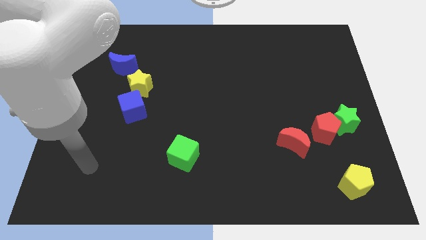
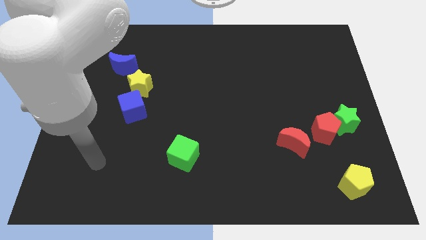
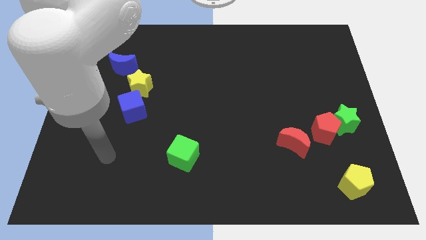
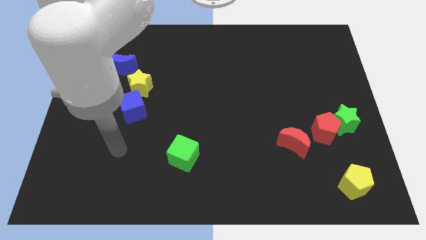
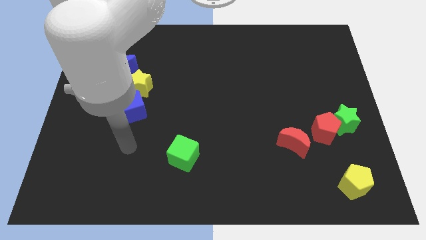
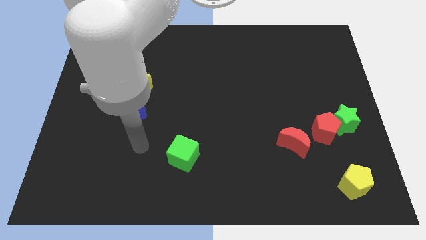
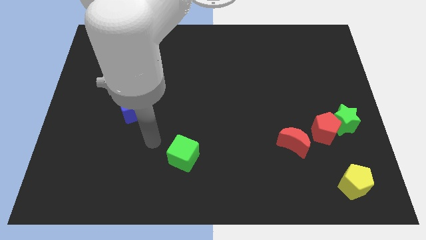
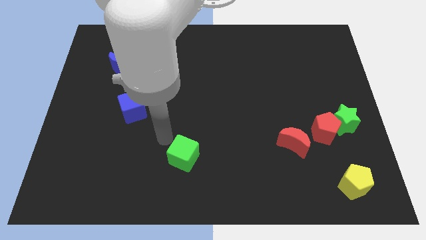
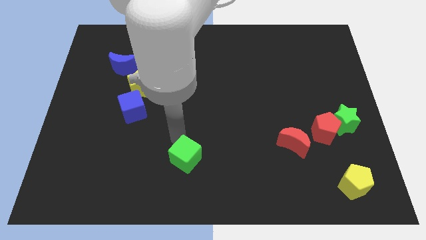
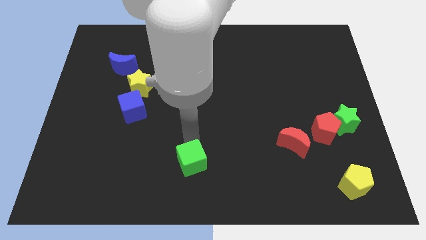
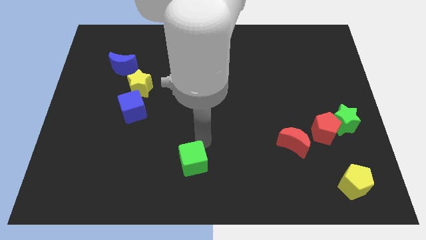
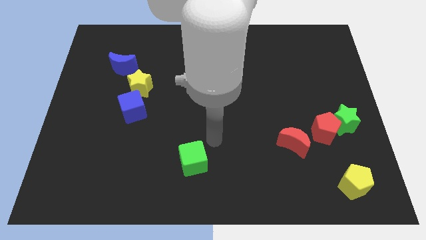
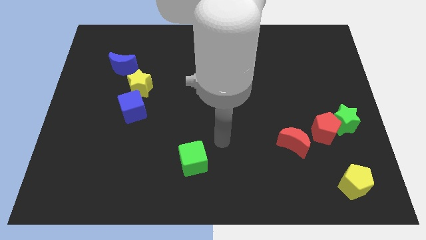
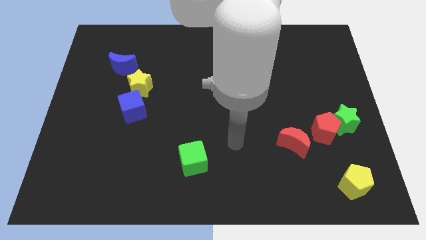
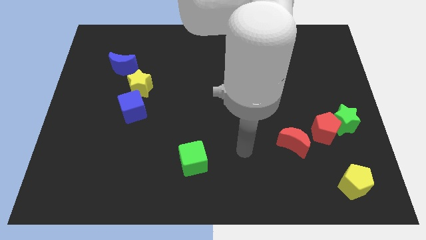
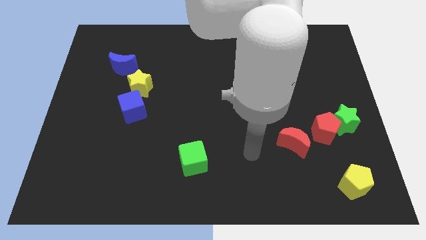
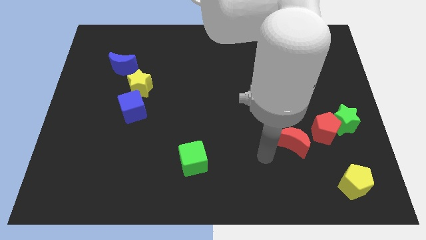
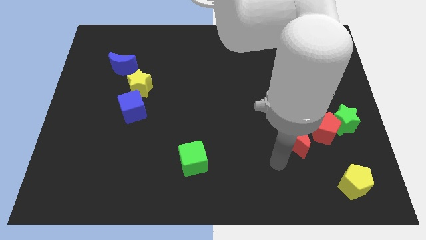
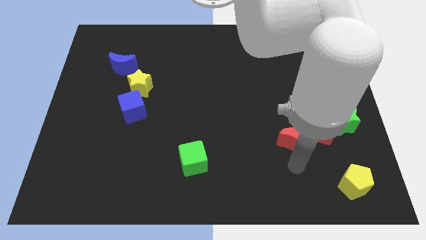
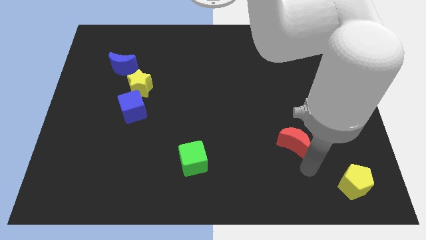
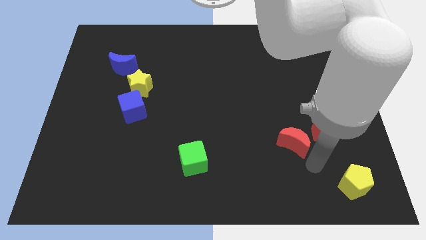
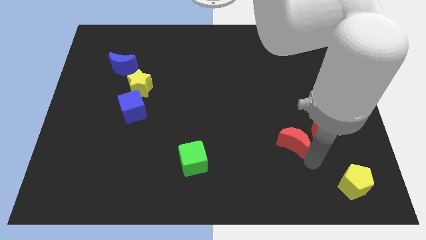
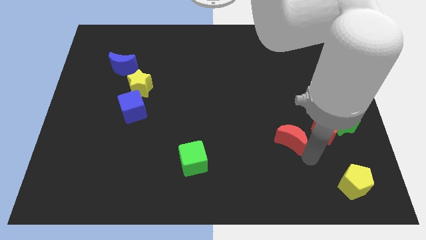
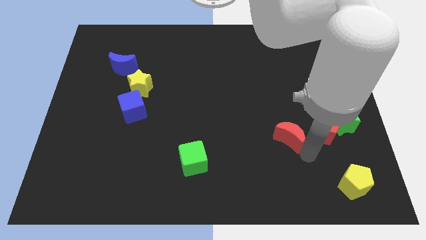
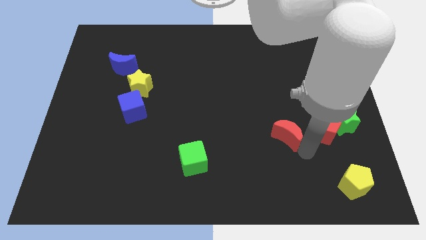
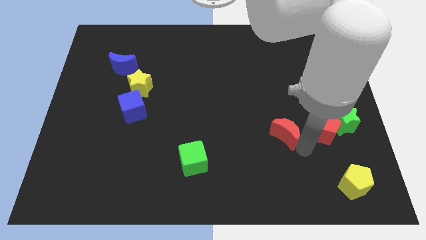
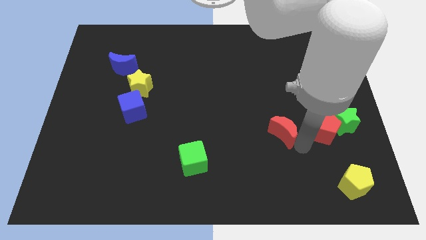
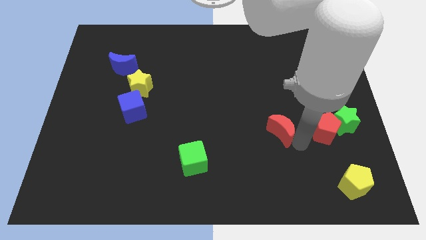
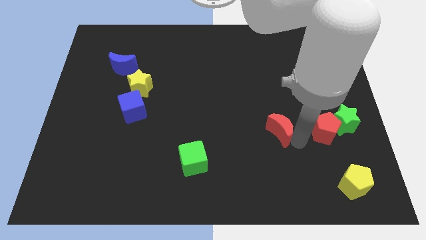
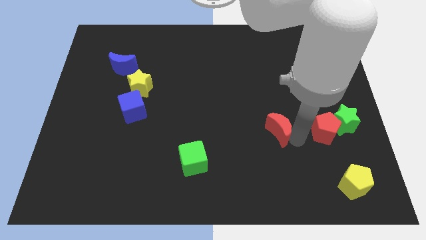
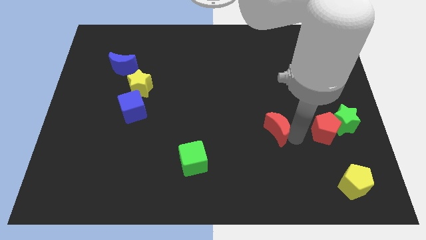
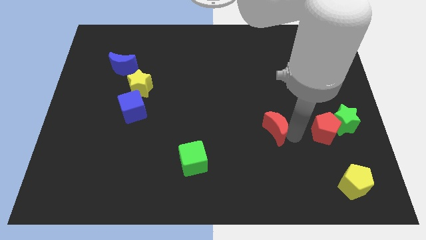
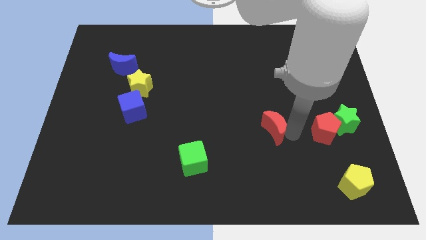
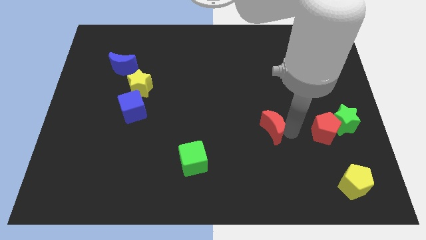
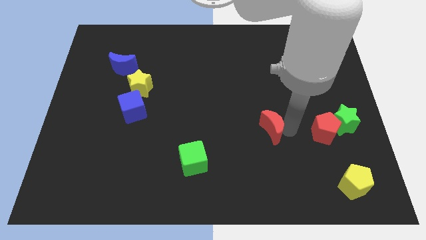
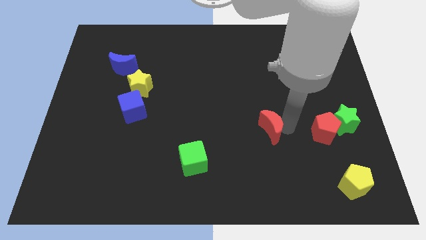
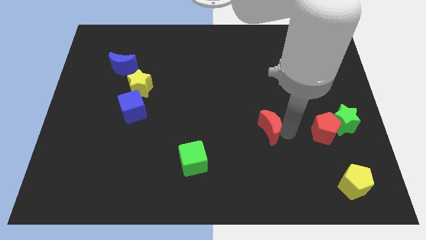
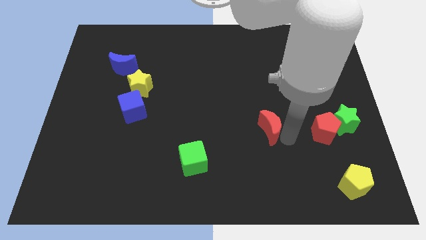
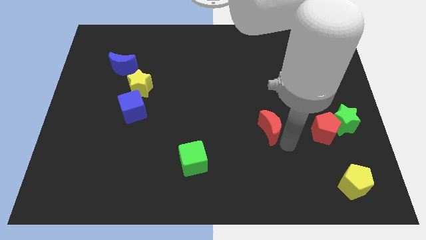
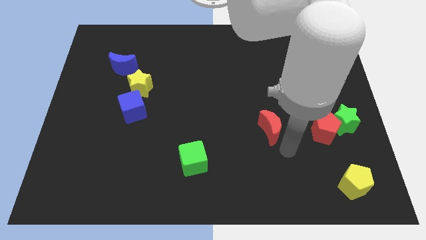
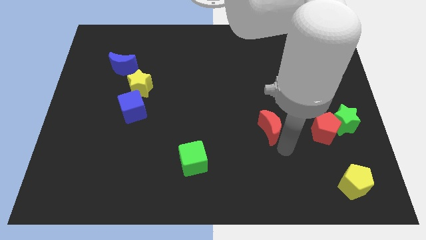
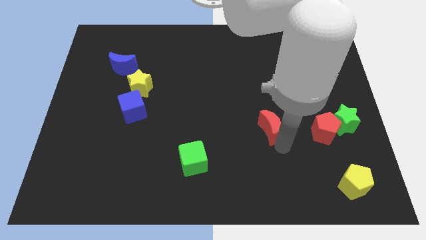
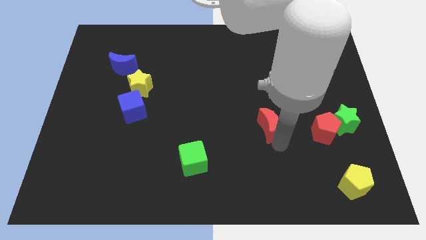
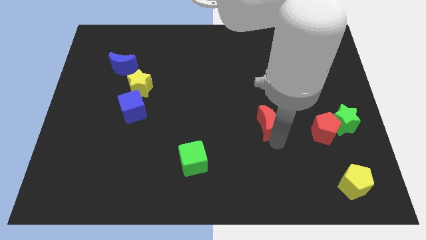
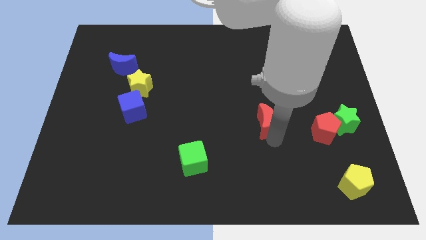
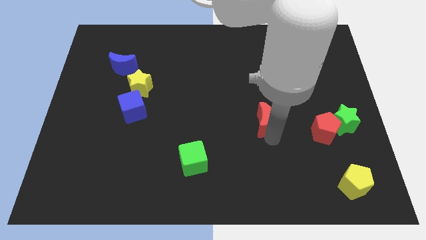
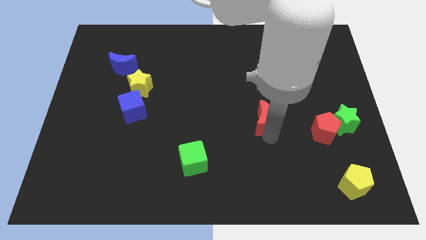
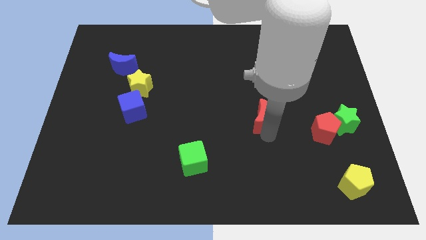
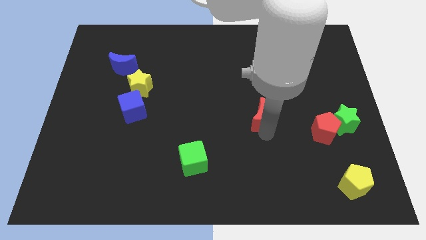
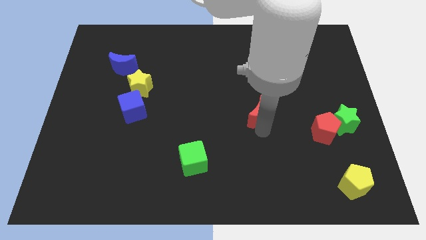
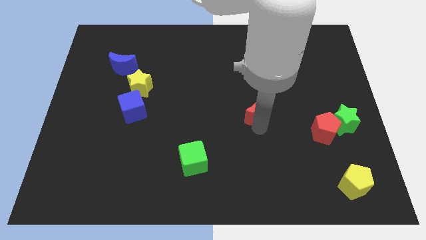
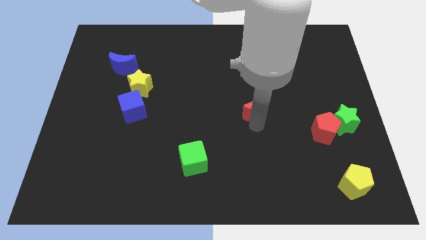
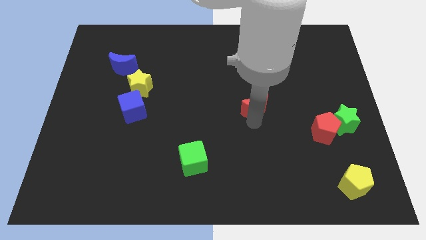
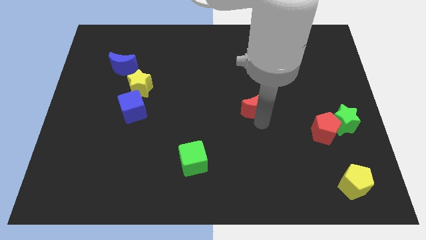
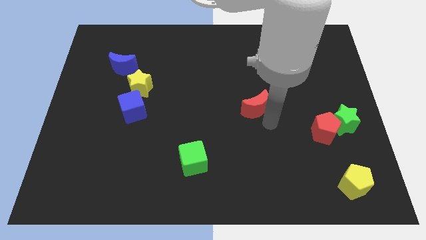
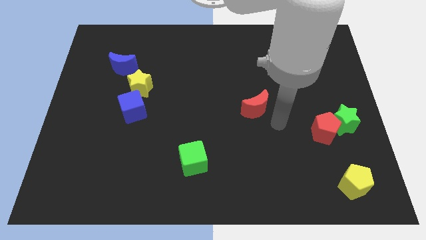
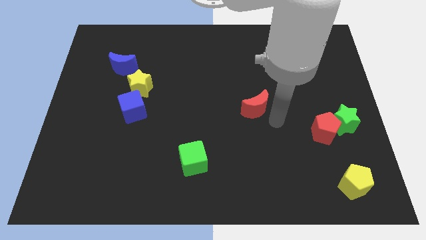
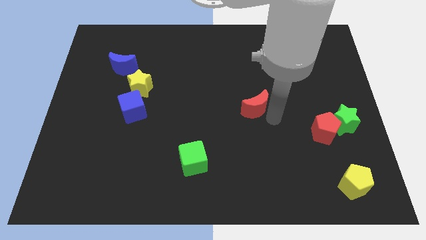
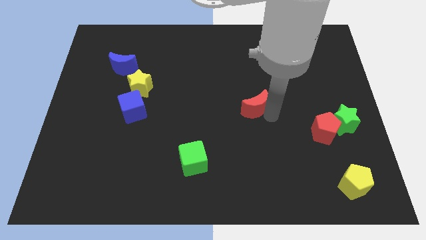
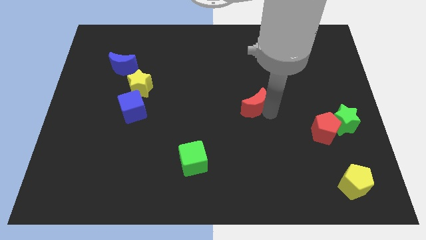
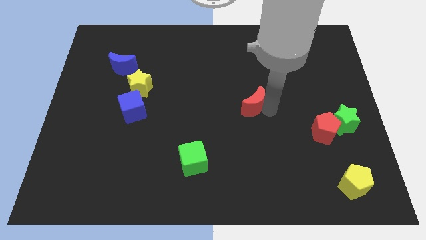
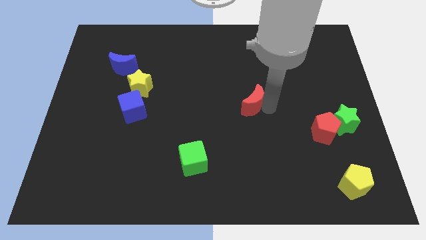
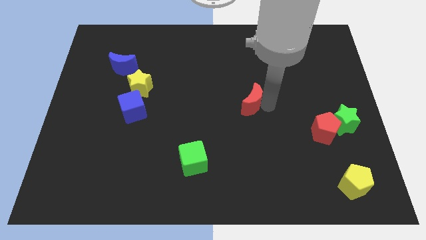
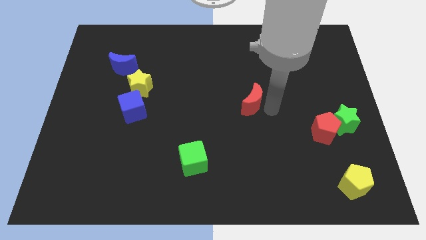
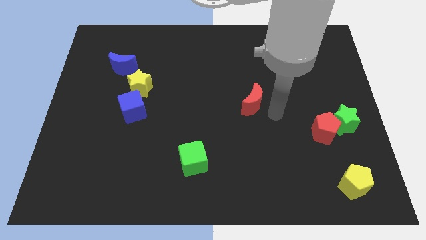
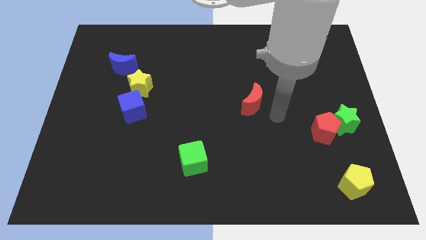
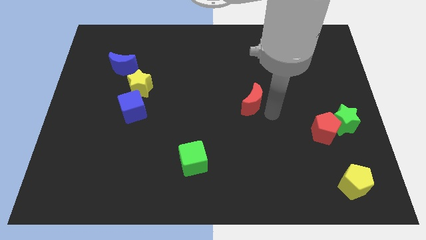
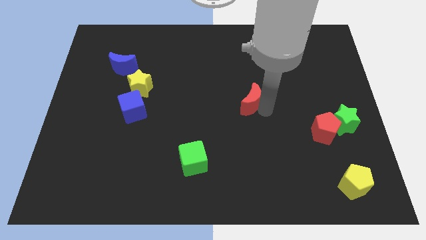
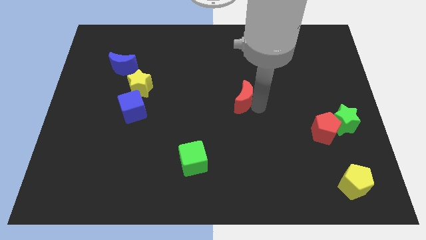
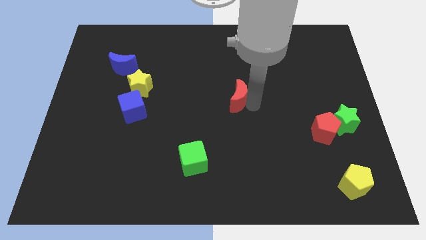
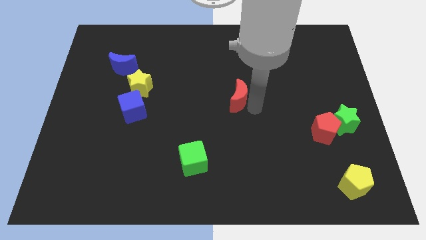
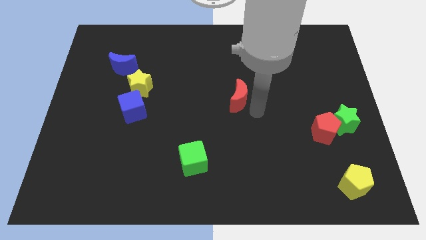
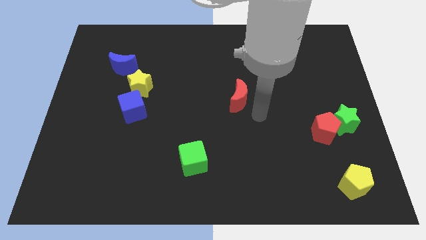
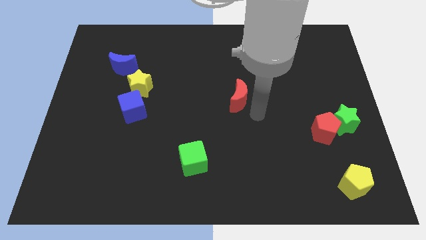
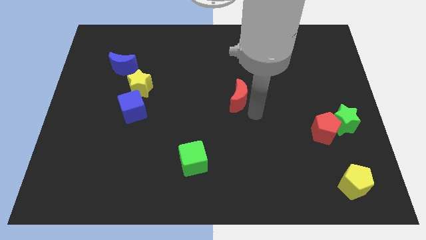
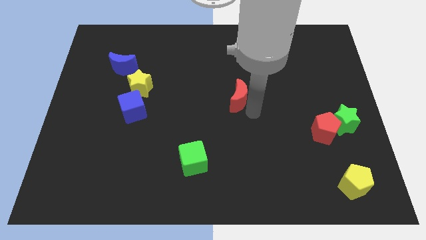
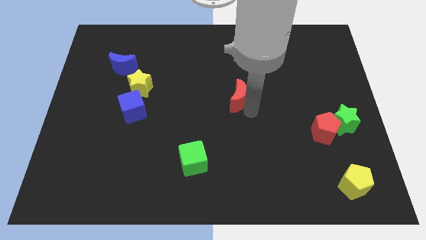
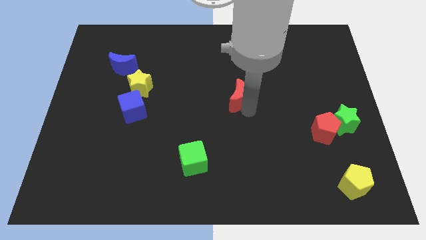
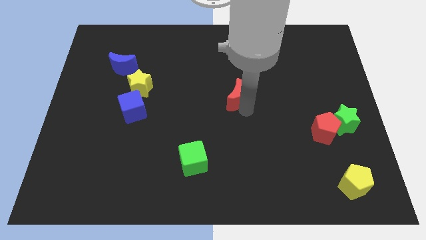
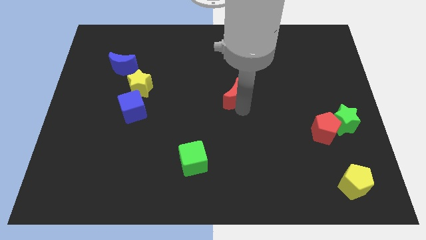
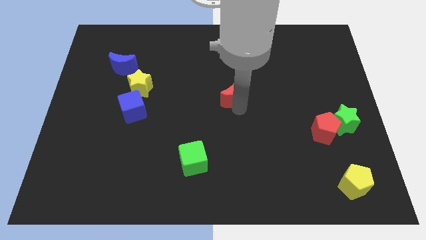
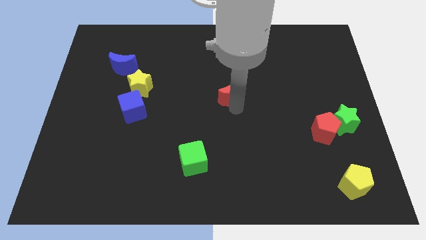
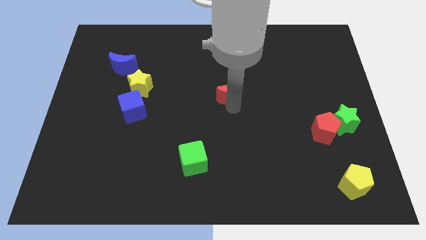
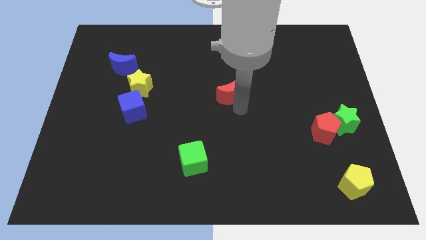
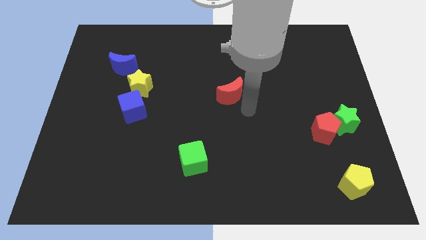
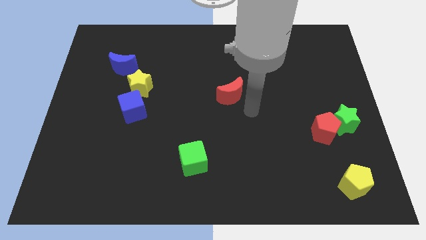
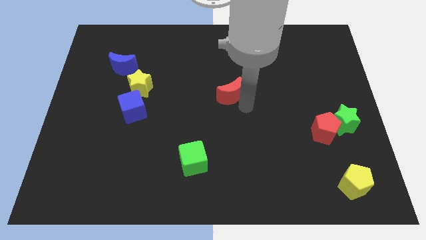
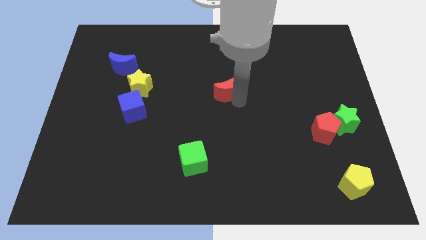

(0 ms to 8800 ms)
slide the red moon upwards and to the left diagonally
